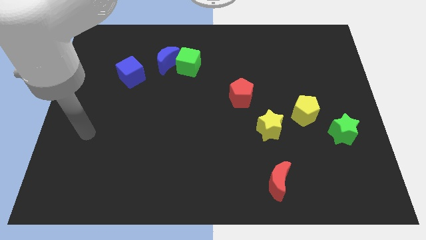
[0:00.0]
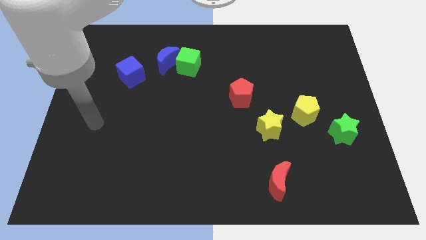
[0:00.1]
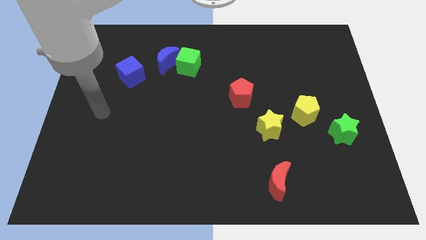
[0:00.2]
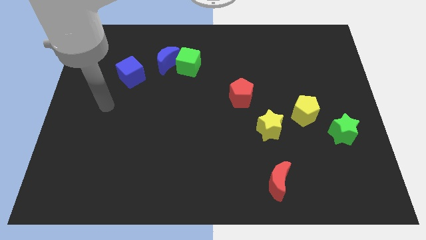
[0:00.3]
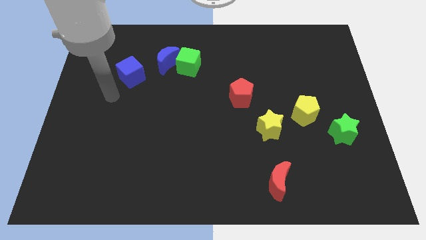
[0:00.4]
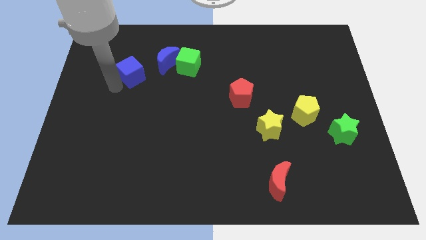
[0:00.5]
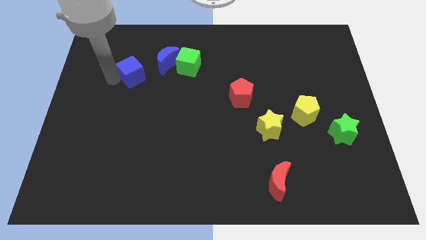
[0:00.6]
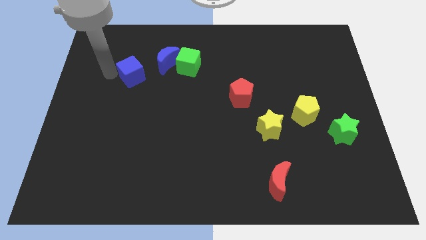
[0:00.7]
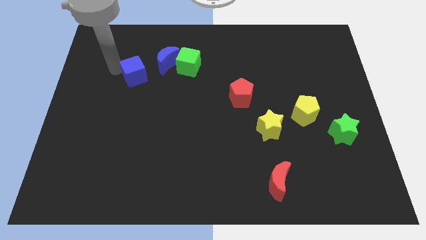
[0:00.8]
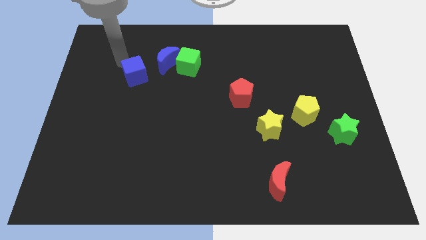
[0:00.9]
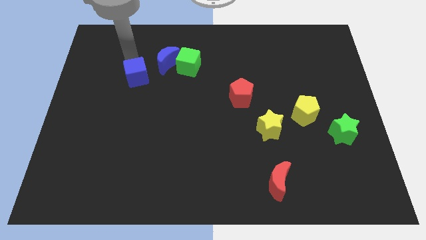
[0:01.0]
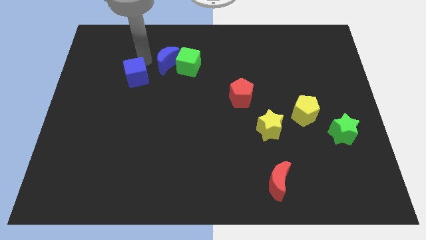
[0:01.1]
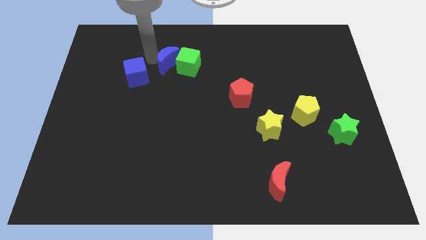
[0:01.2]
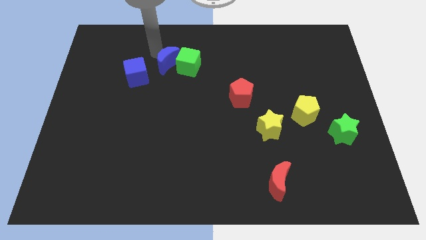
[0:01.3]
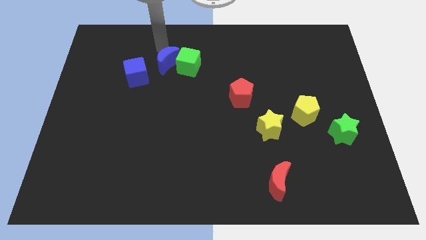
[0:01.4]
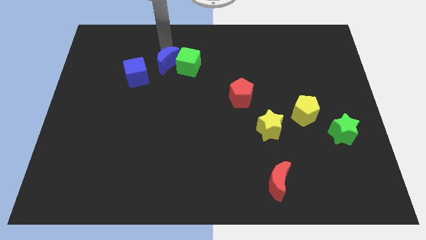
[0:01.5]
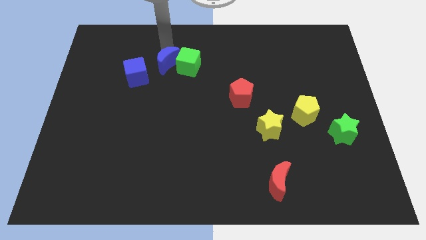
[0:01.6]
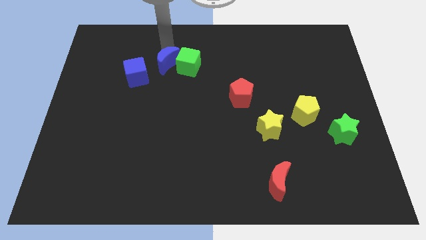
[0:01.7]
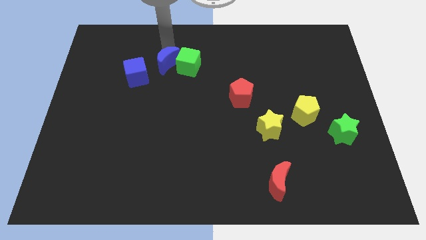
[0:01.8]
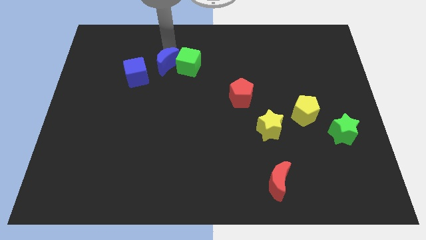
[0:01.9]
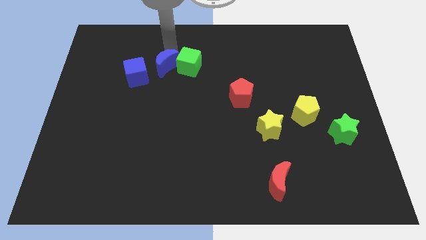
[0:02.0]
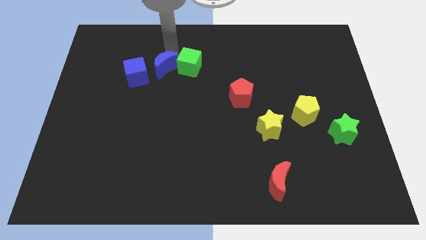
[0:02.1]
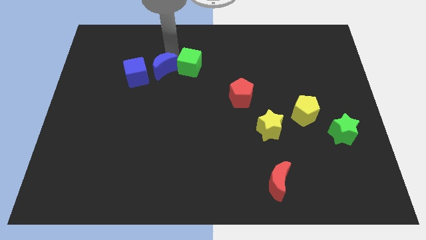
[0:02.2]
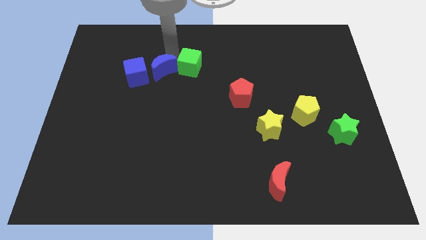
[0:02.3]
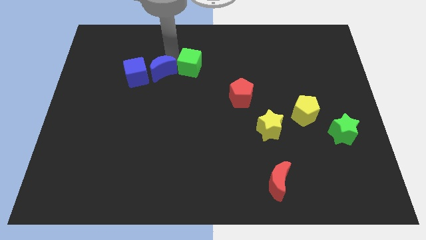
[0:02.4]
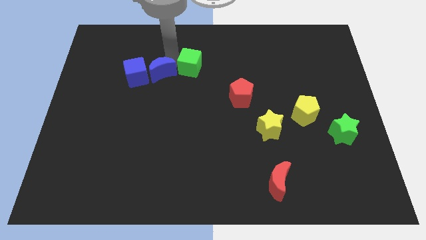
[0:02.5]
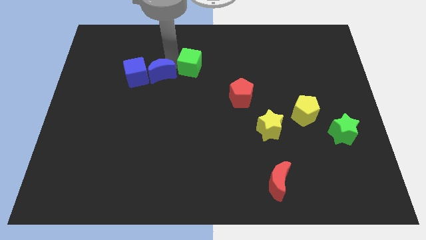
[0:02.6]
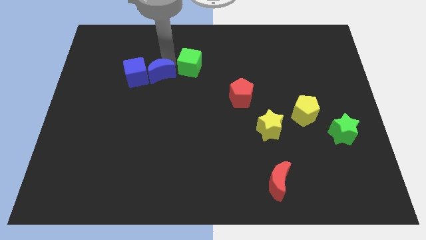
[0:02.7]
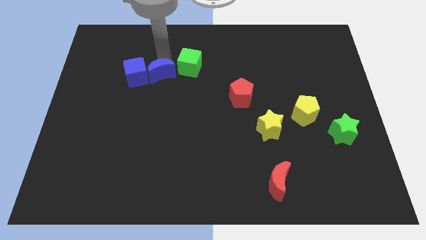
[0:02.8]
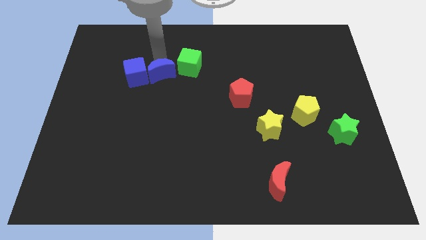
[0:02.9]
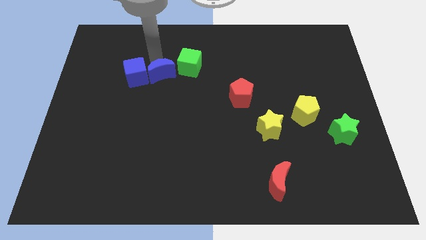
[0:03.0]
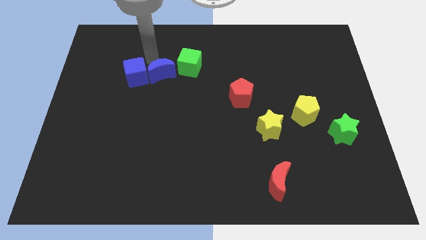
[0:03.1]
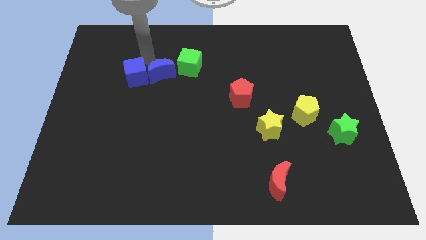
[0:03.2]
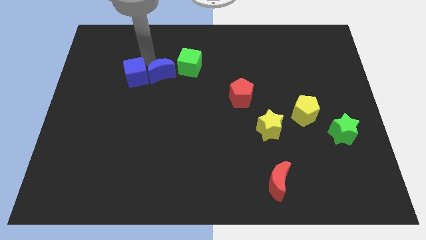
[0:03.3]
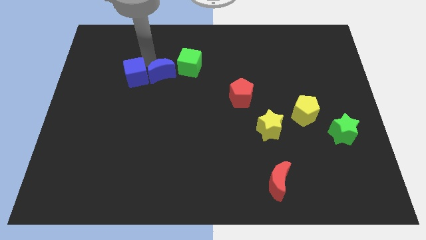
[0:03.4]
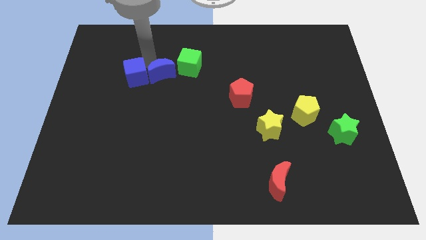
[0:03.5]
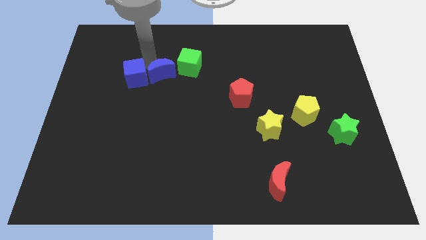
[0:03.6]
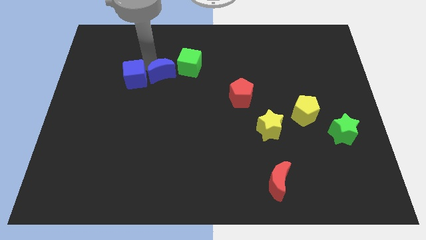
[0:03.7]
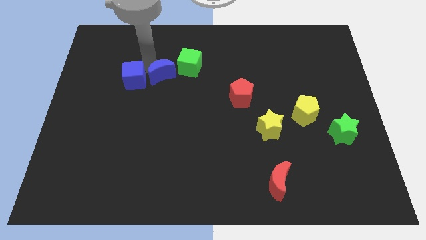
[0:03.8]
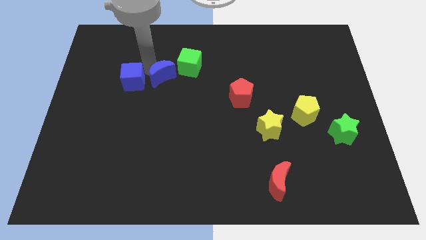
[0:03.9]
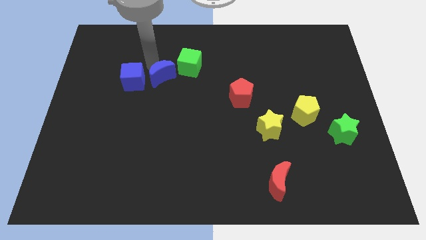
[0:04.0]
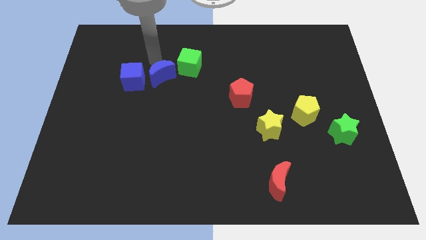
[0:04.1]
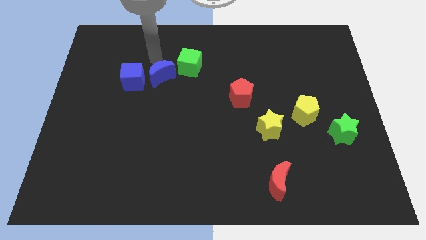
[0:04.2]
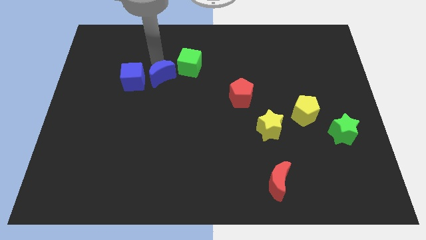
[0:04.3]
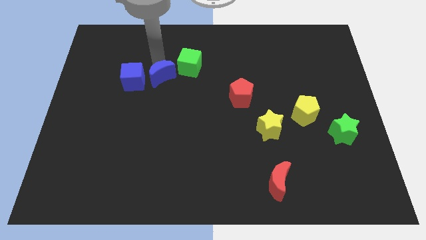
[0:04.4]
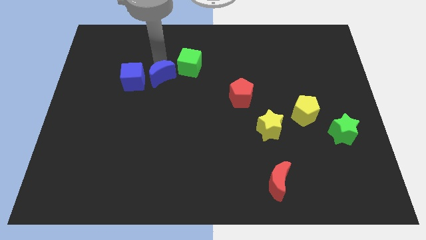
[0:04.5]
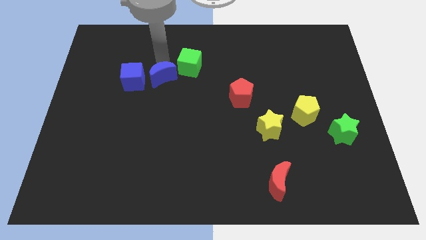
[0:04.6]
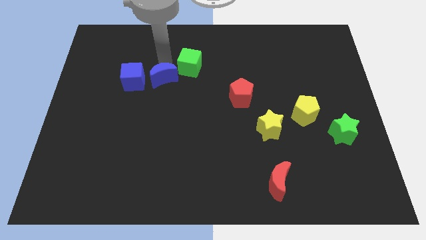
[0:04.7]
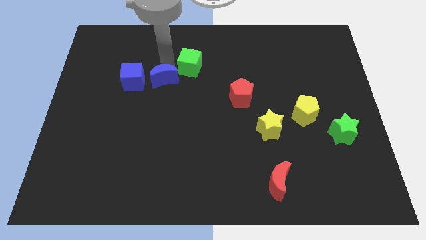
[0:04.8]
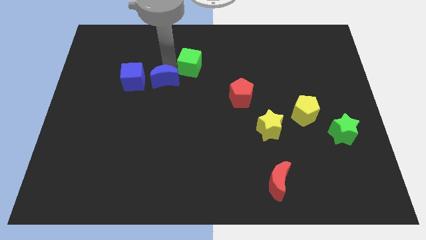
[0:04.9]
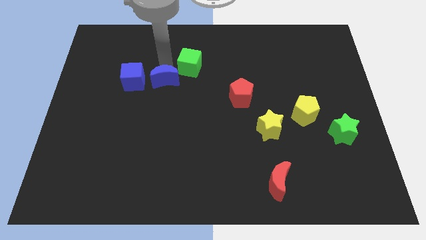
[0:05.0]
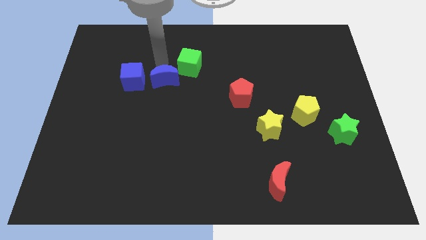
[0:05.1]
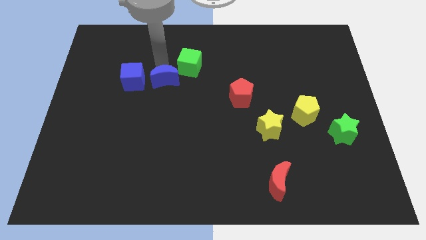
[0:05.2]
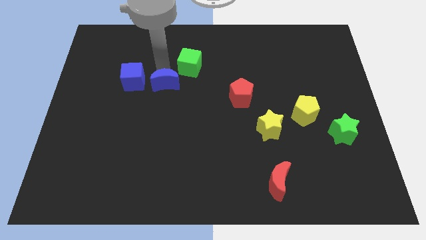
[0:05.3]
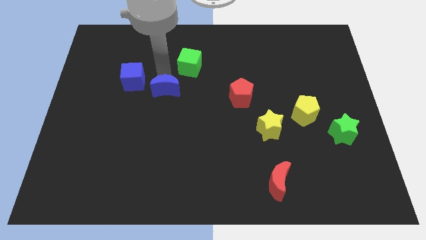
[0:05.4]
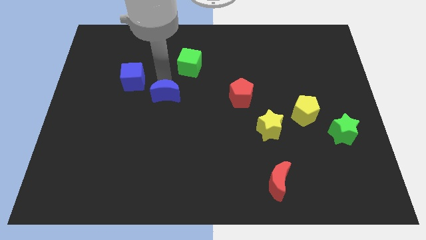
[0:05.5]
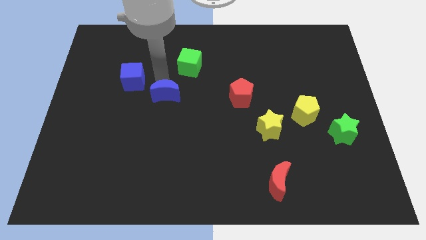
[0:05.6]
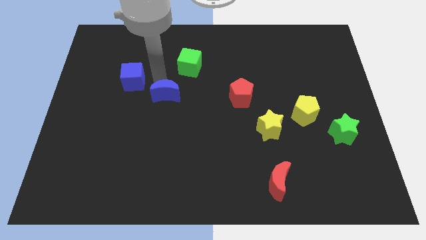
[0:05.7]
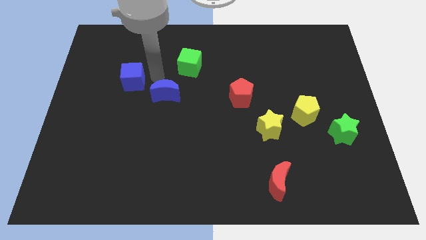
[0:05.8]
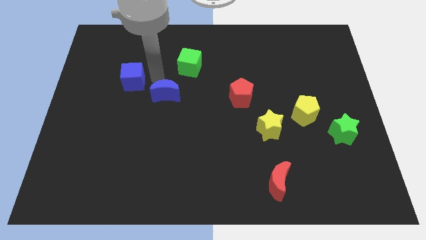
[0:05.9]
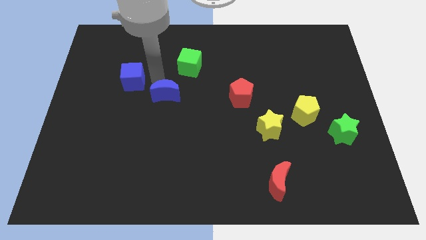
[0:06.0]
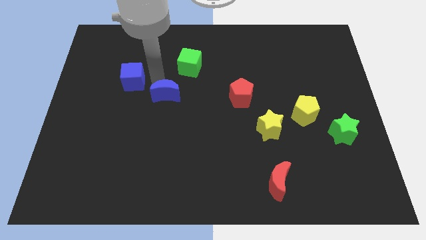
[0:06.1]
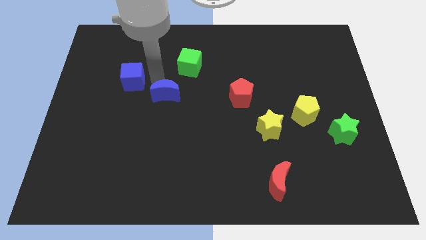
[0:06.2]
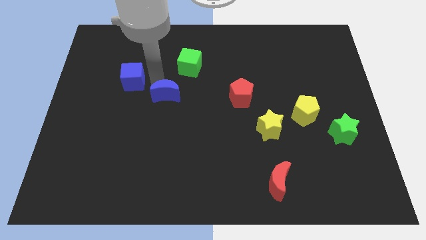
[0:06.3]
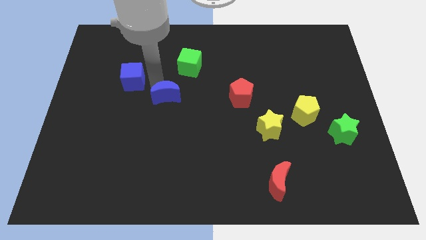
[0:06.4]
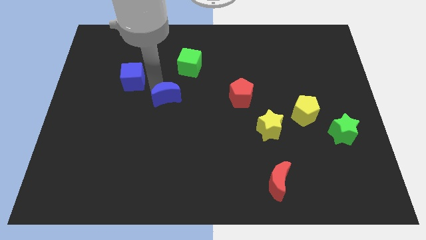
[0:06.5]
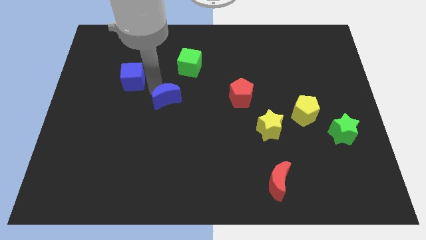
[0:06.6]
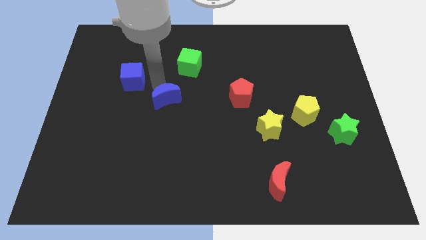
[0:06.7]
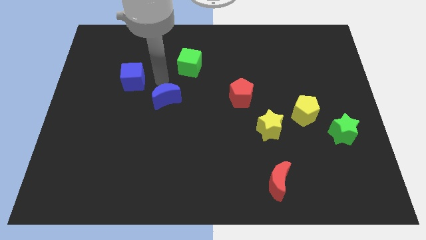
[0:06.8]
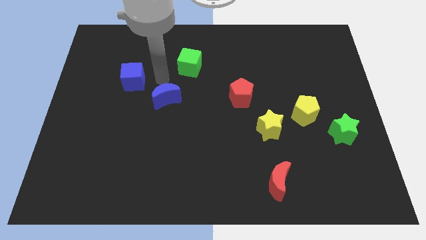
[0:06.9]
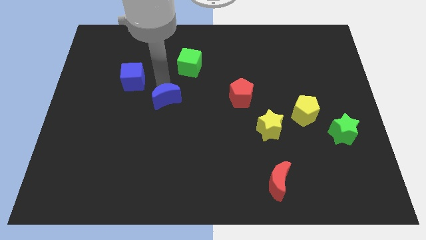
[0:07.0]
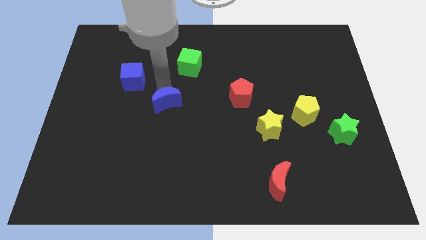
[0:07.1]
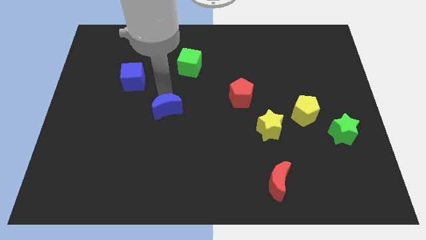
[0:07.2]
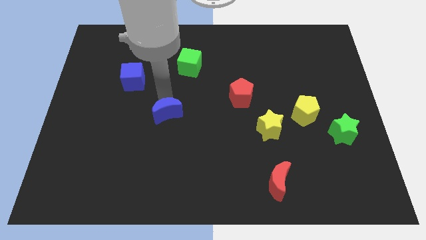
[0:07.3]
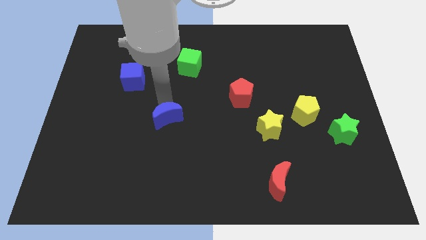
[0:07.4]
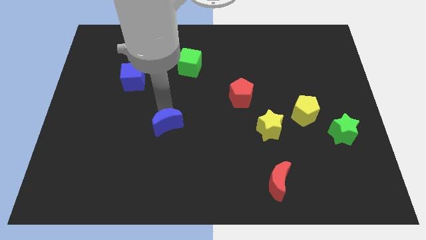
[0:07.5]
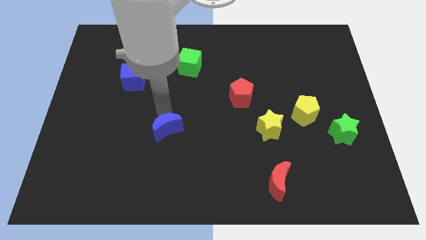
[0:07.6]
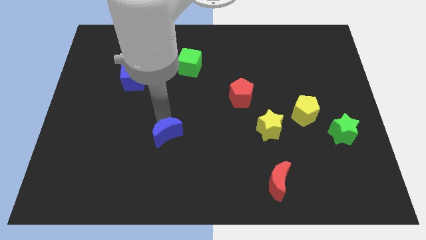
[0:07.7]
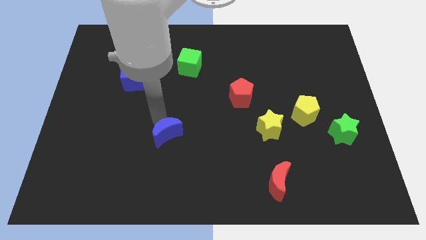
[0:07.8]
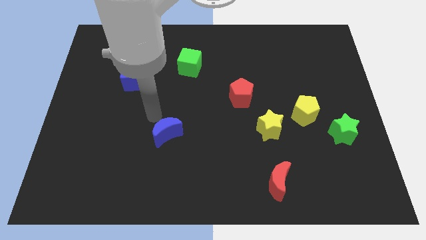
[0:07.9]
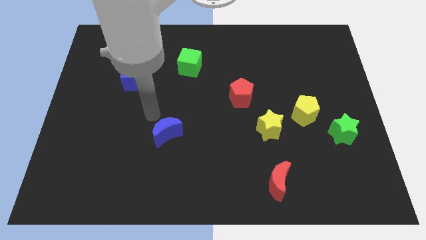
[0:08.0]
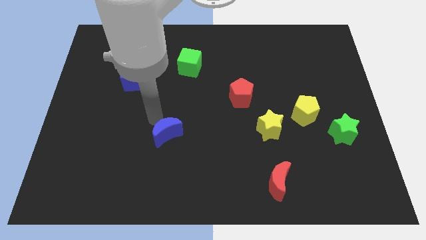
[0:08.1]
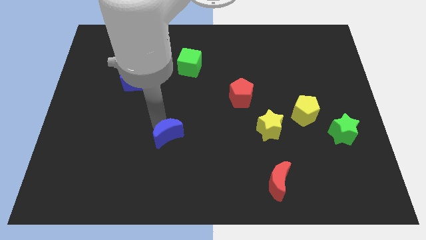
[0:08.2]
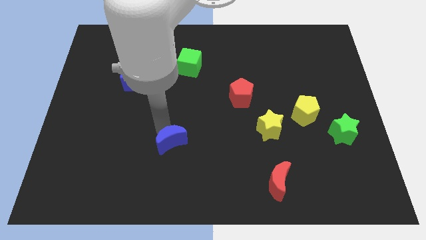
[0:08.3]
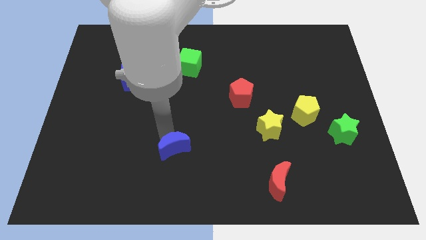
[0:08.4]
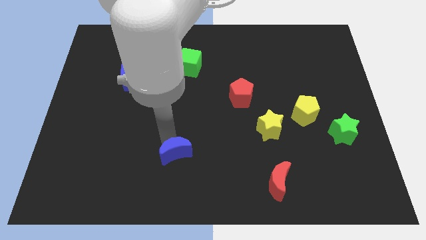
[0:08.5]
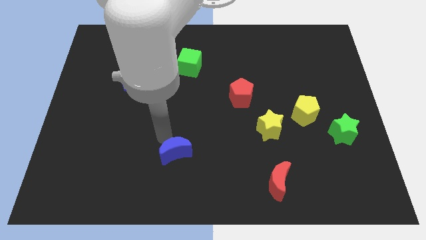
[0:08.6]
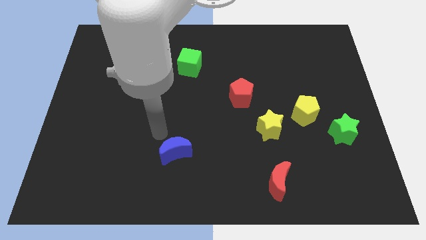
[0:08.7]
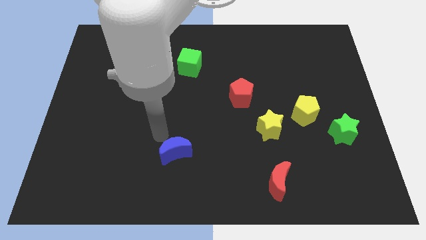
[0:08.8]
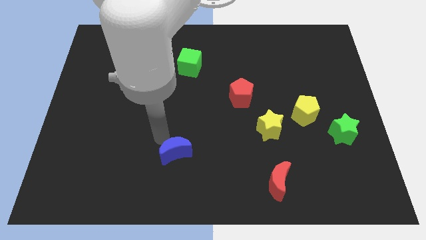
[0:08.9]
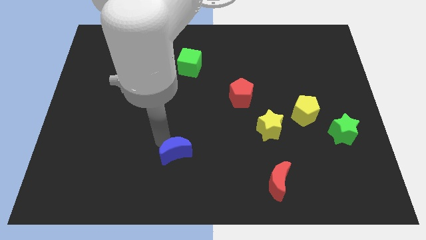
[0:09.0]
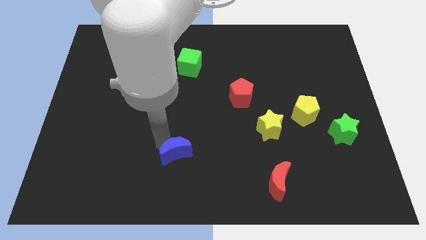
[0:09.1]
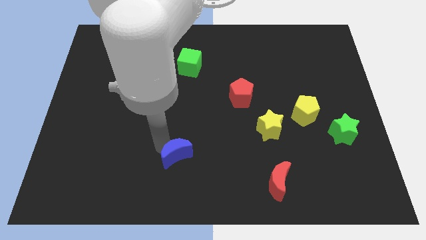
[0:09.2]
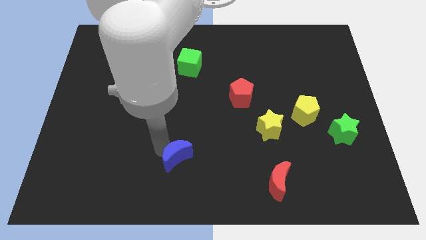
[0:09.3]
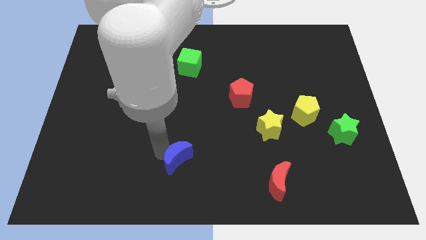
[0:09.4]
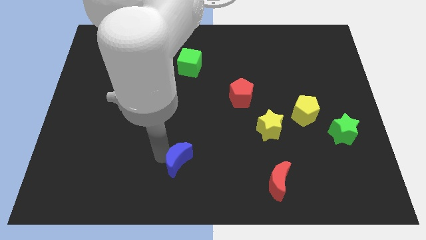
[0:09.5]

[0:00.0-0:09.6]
push the blue moon to the bottom side
